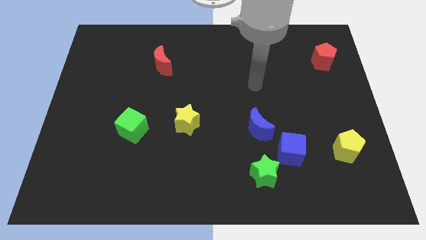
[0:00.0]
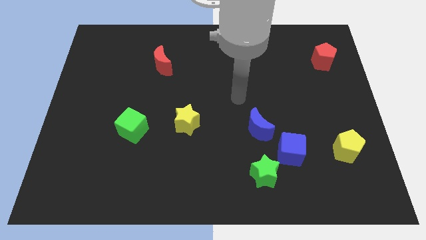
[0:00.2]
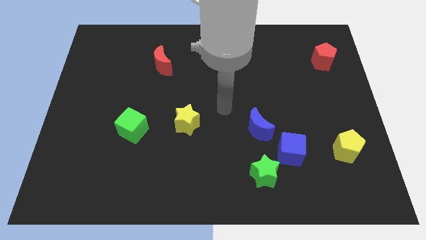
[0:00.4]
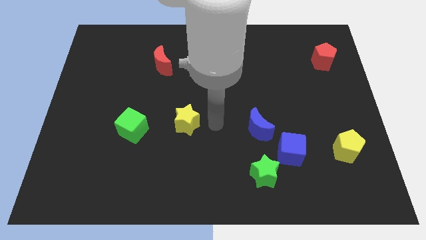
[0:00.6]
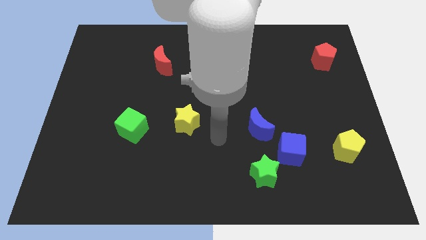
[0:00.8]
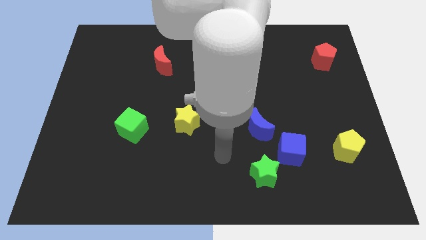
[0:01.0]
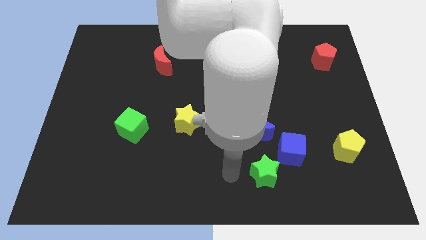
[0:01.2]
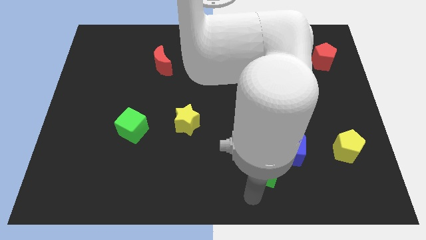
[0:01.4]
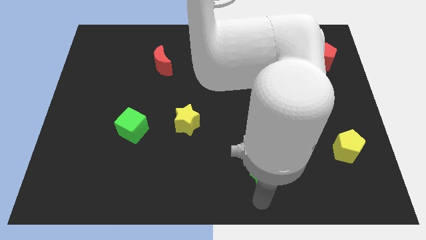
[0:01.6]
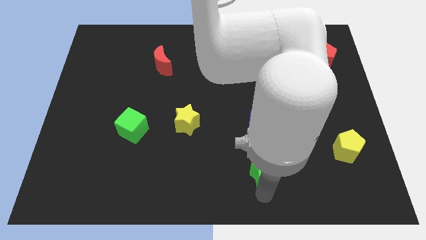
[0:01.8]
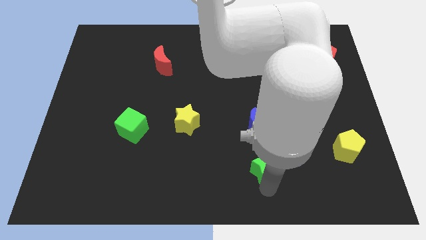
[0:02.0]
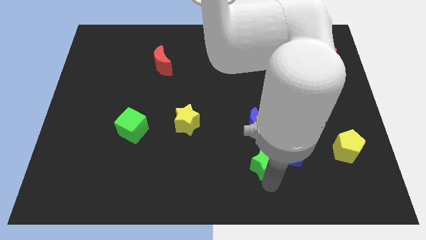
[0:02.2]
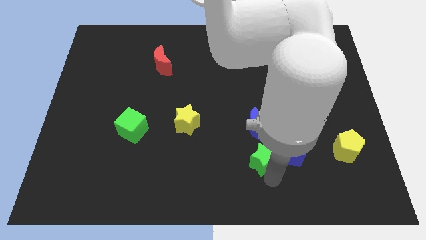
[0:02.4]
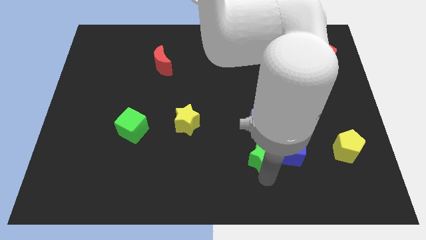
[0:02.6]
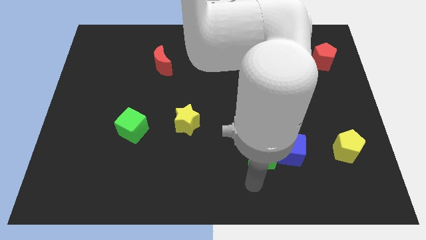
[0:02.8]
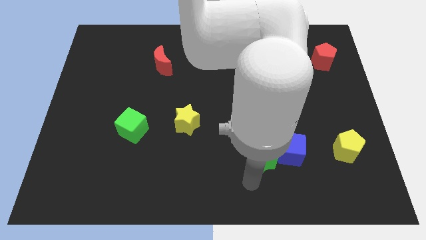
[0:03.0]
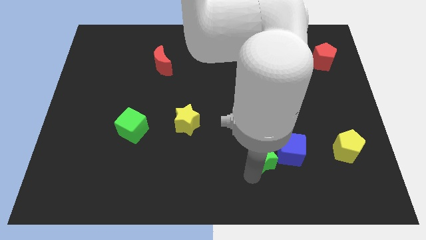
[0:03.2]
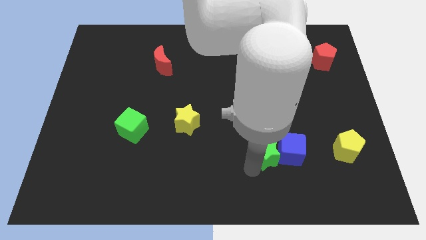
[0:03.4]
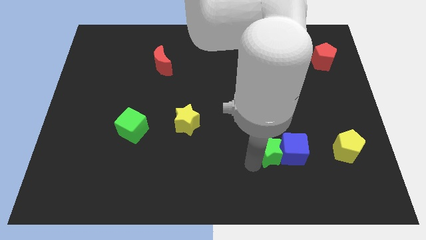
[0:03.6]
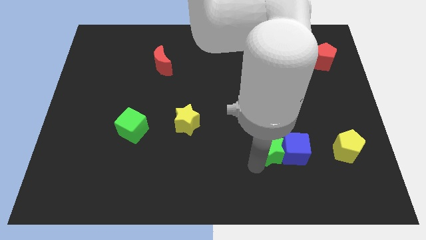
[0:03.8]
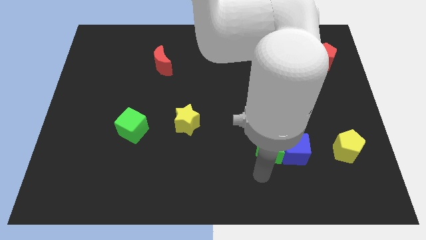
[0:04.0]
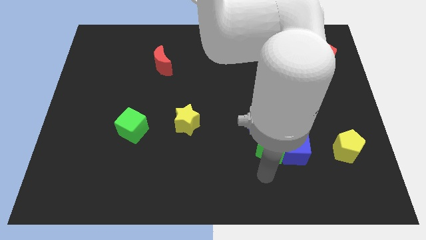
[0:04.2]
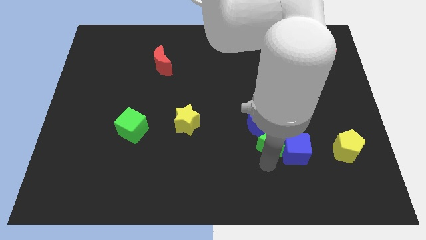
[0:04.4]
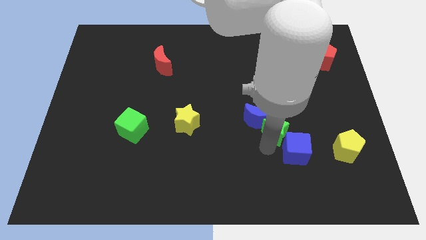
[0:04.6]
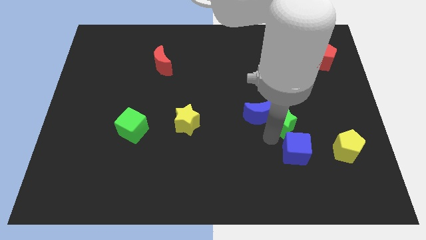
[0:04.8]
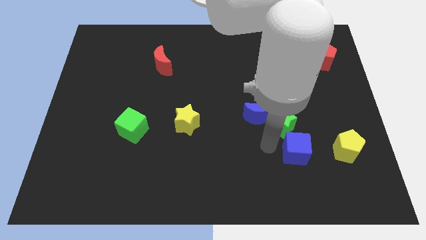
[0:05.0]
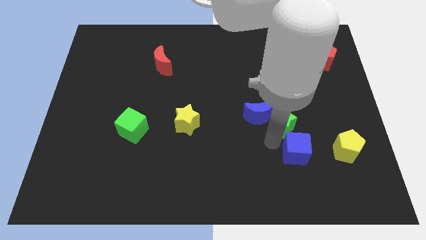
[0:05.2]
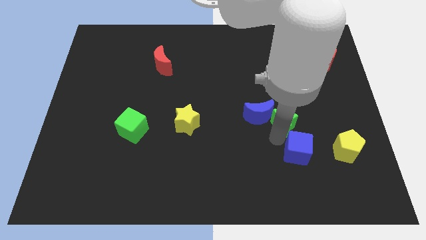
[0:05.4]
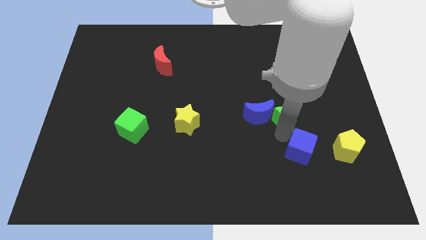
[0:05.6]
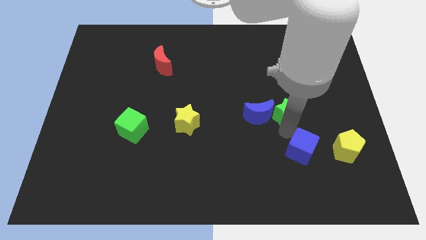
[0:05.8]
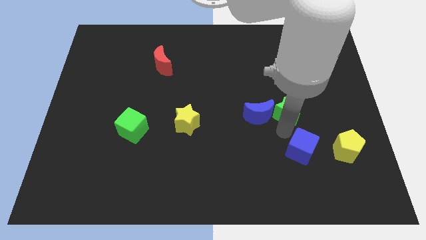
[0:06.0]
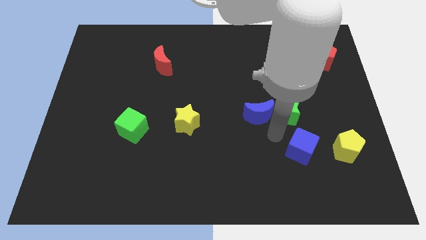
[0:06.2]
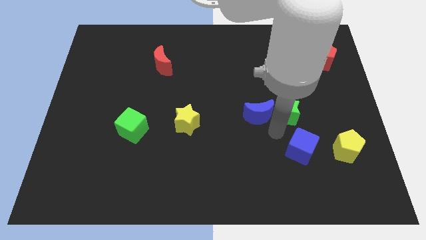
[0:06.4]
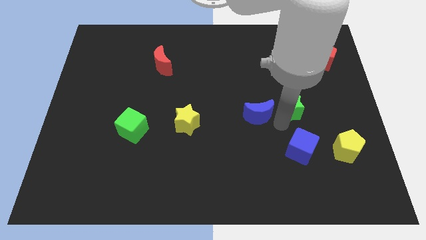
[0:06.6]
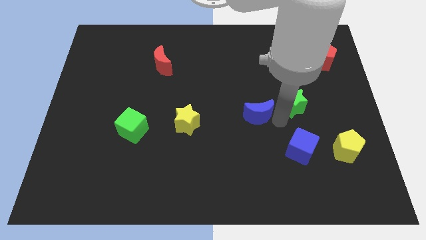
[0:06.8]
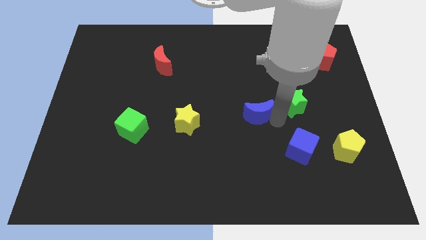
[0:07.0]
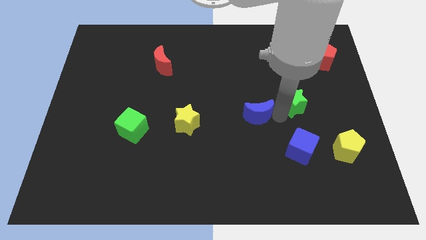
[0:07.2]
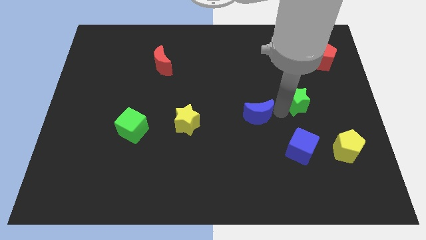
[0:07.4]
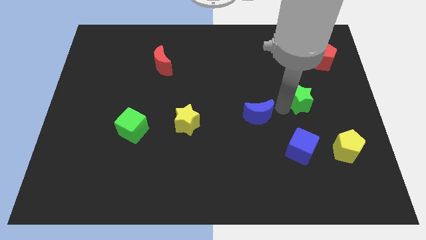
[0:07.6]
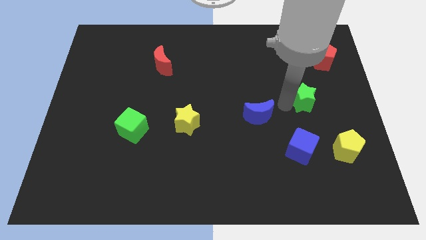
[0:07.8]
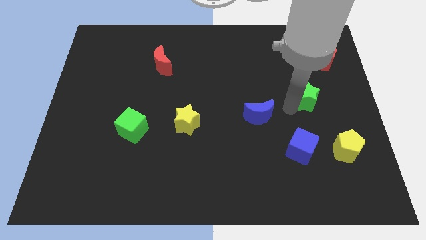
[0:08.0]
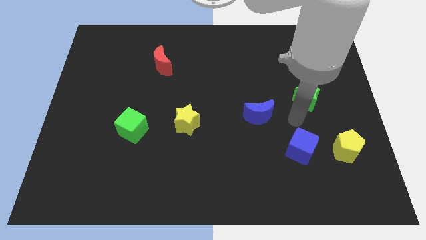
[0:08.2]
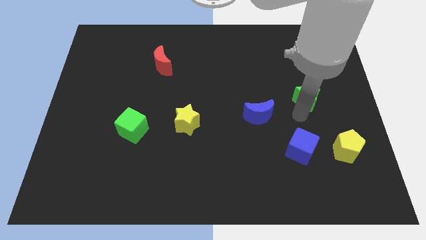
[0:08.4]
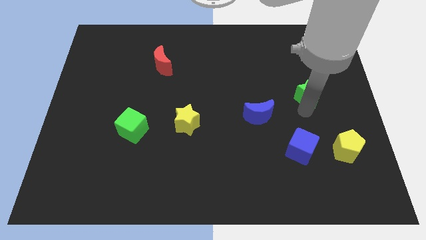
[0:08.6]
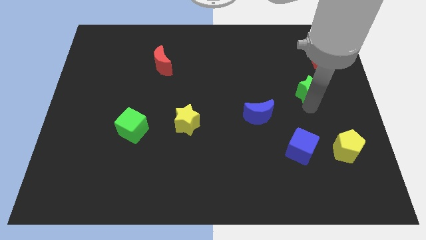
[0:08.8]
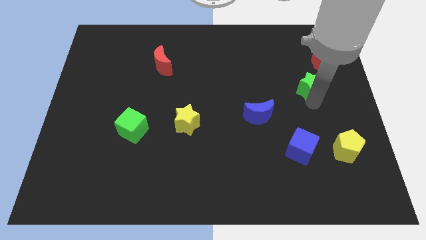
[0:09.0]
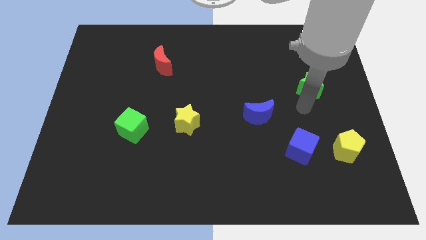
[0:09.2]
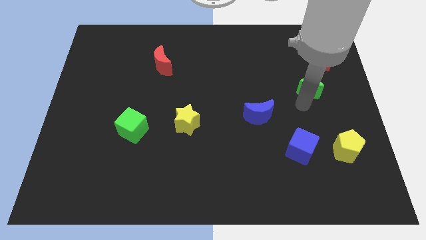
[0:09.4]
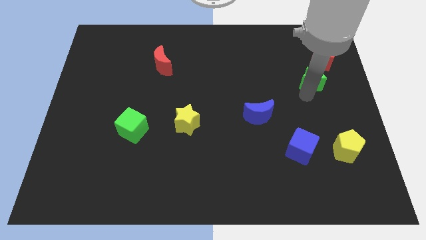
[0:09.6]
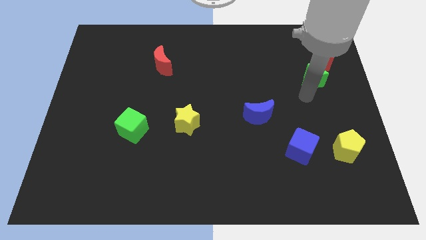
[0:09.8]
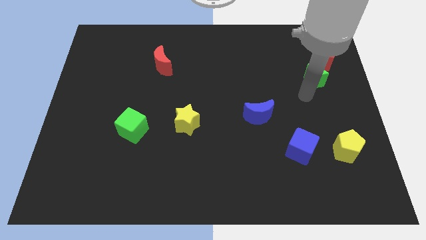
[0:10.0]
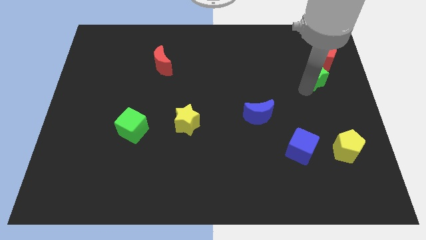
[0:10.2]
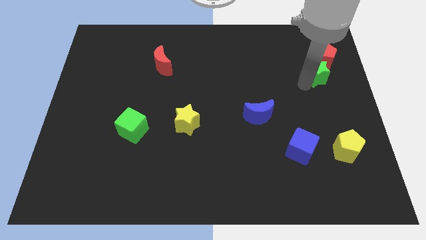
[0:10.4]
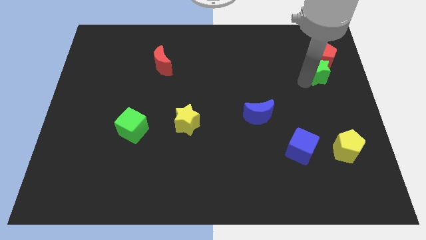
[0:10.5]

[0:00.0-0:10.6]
put the green star close to the red pentagon

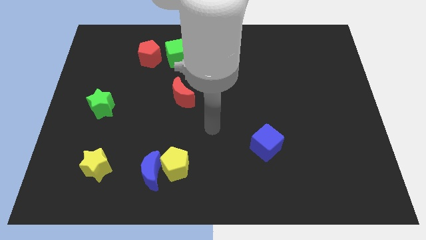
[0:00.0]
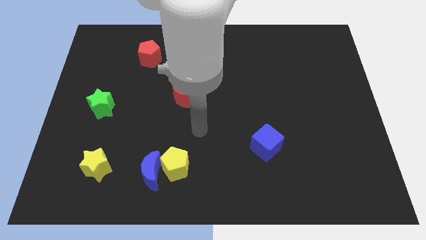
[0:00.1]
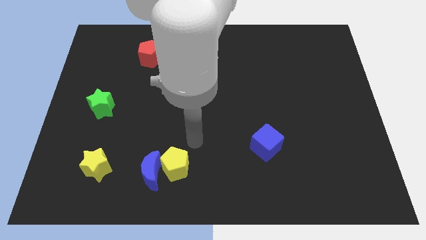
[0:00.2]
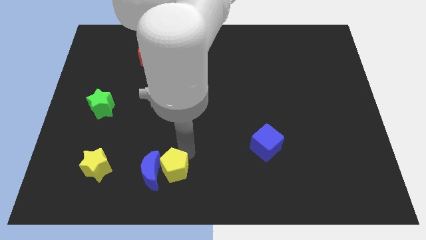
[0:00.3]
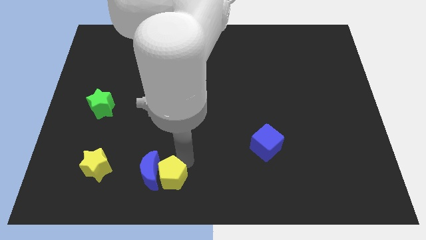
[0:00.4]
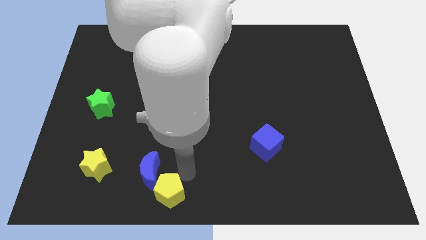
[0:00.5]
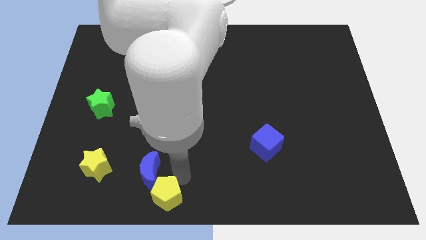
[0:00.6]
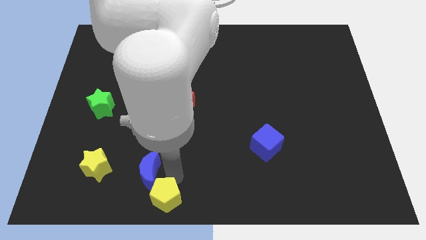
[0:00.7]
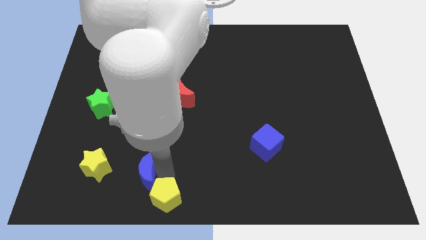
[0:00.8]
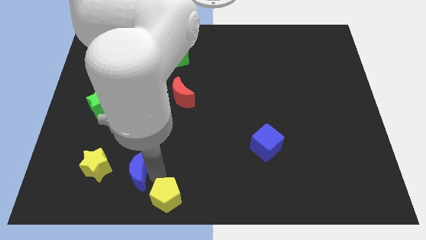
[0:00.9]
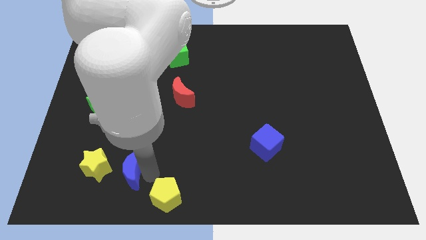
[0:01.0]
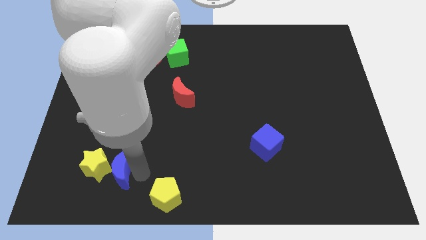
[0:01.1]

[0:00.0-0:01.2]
slide the blue moon next to the yellow star

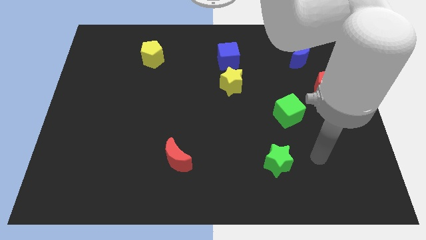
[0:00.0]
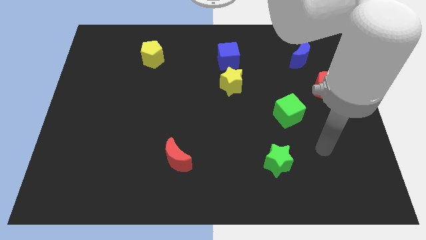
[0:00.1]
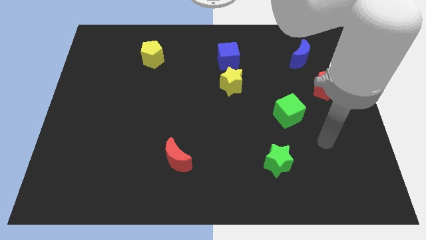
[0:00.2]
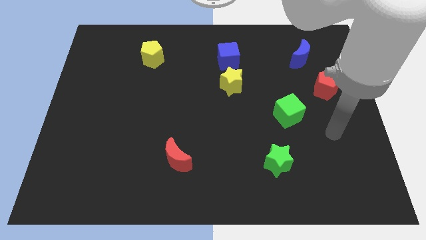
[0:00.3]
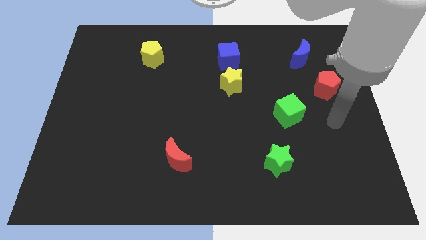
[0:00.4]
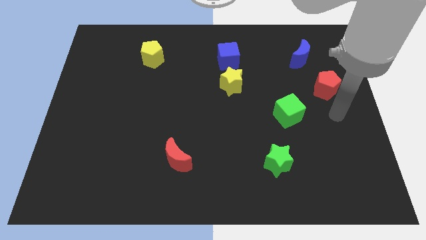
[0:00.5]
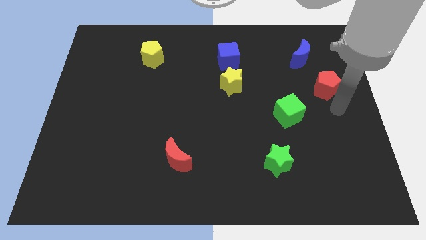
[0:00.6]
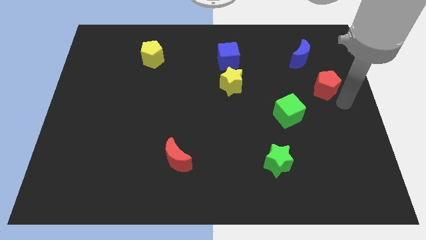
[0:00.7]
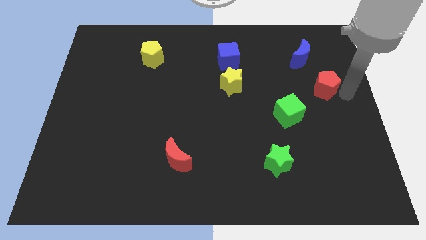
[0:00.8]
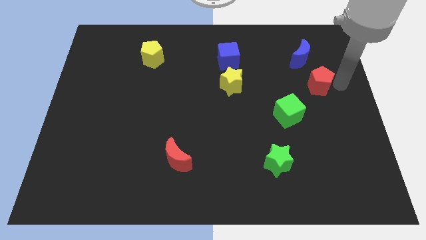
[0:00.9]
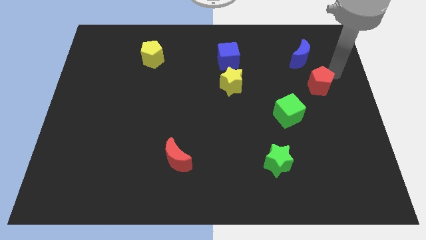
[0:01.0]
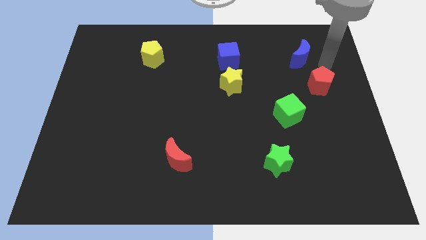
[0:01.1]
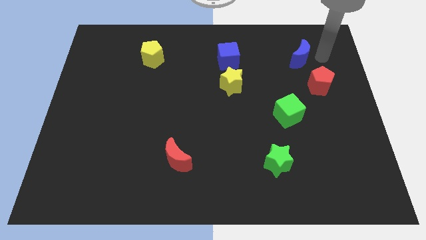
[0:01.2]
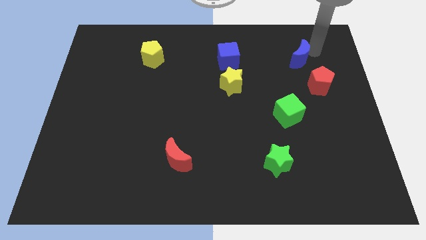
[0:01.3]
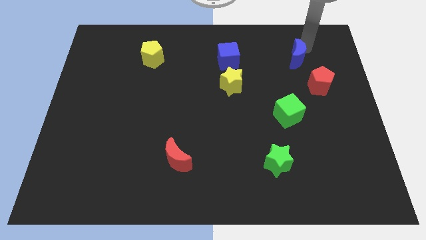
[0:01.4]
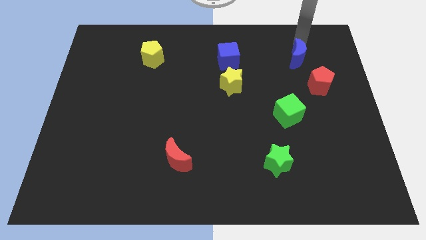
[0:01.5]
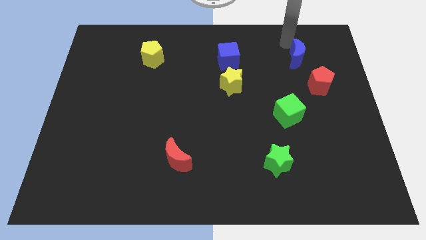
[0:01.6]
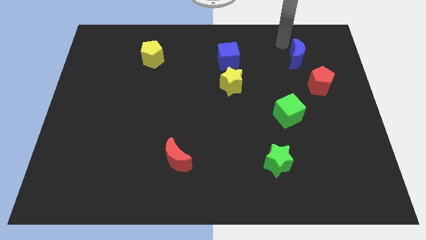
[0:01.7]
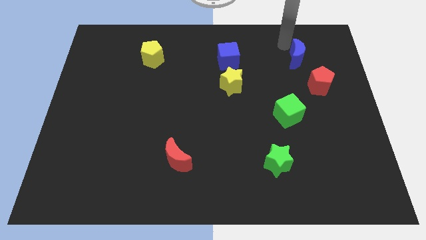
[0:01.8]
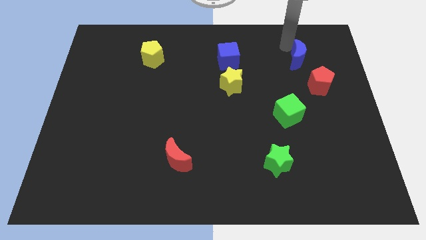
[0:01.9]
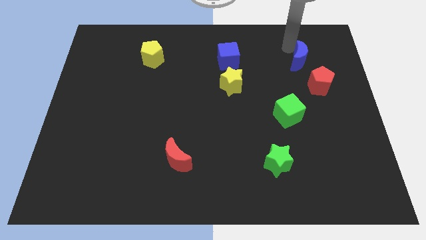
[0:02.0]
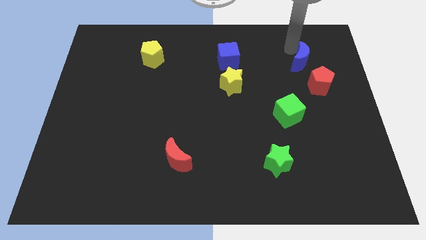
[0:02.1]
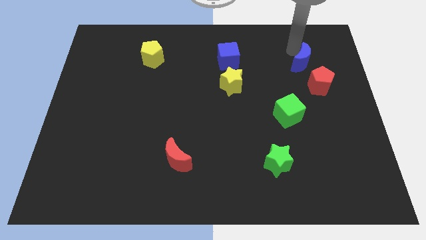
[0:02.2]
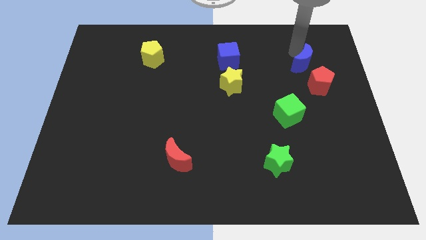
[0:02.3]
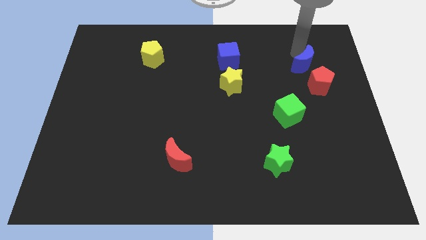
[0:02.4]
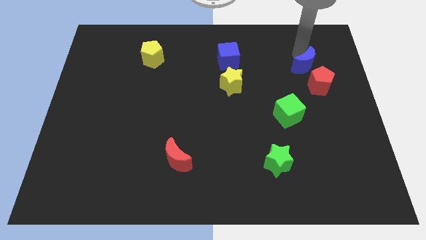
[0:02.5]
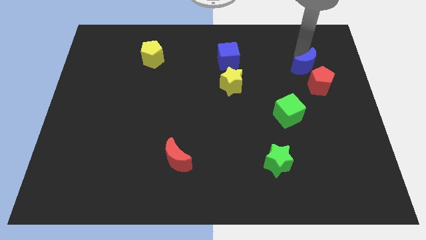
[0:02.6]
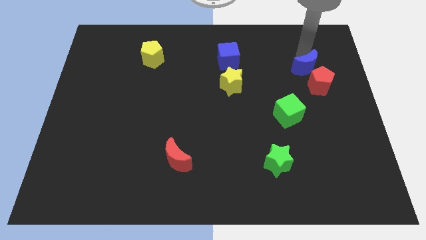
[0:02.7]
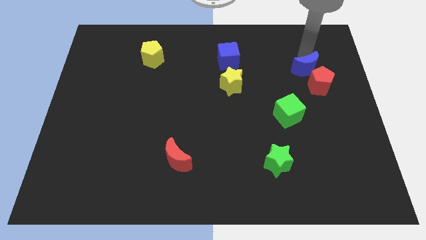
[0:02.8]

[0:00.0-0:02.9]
push the blue moon to the red pentagon
